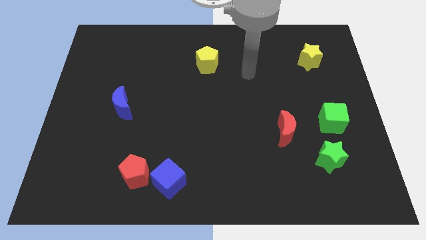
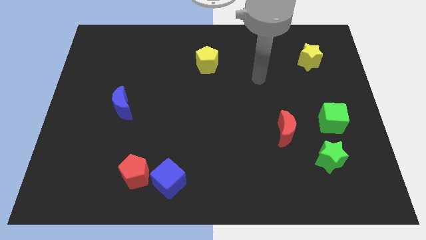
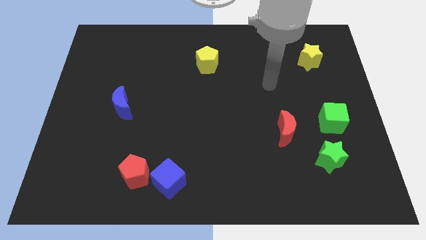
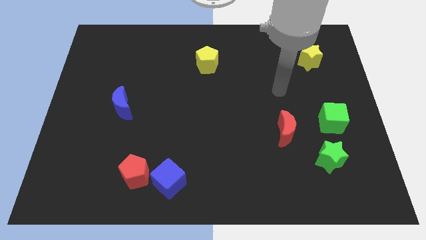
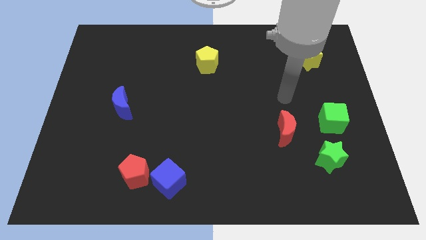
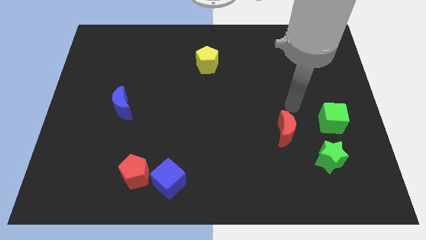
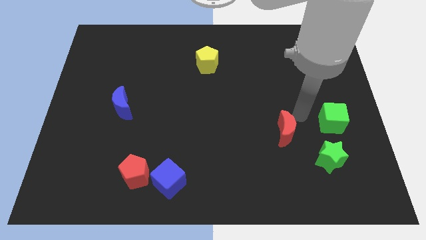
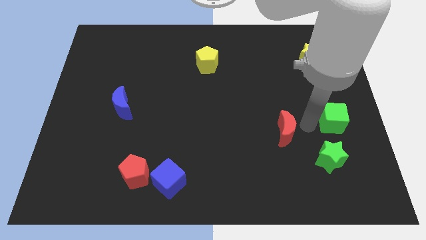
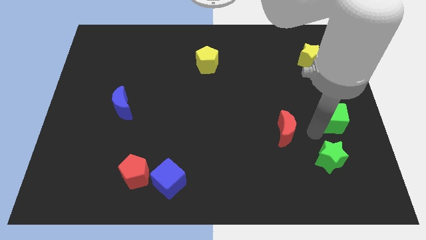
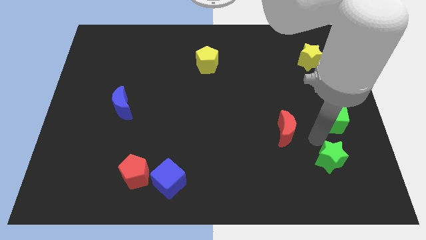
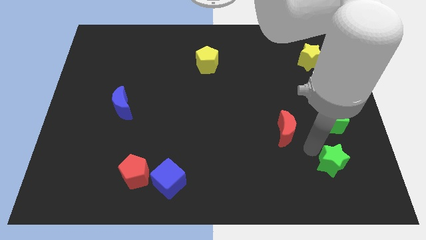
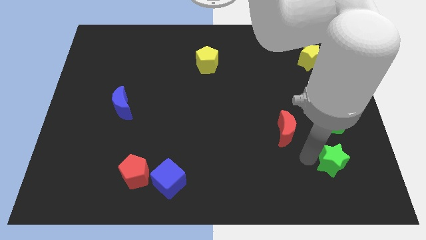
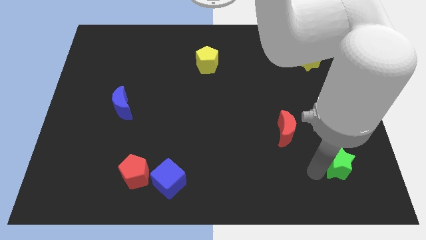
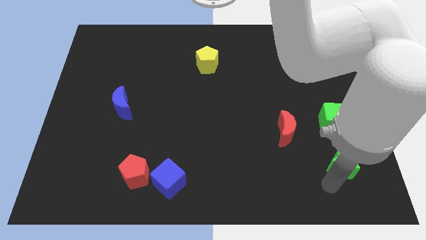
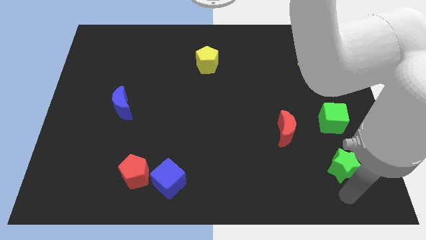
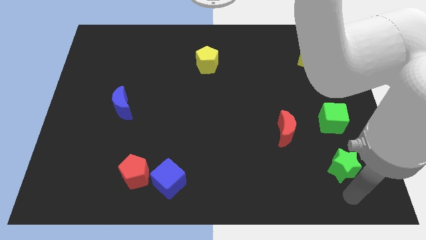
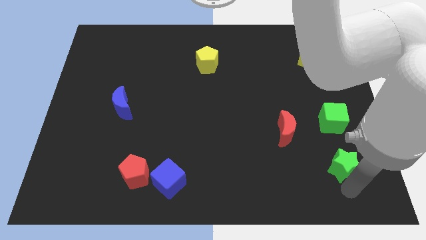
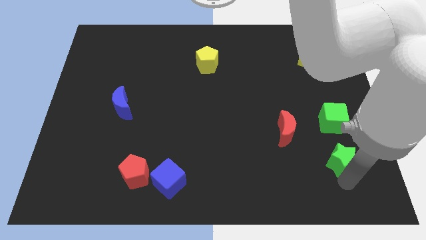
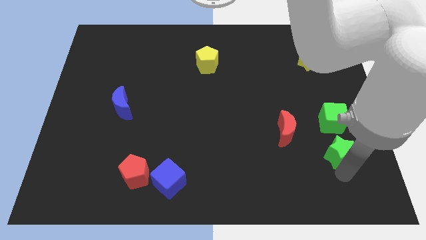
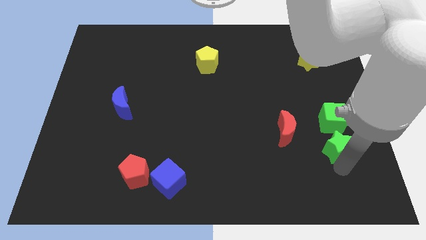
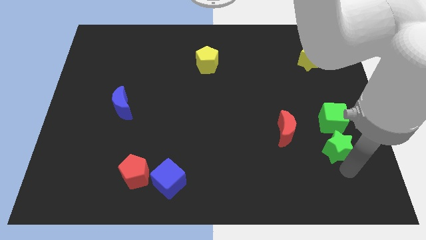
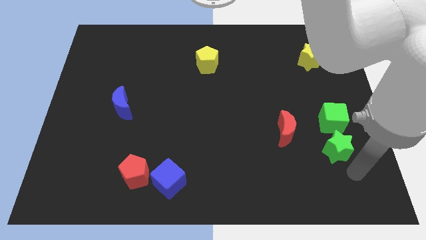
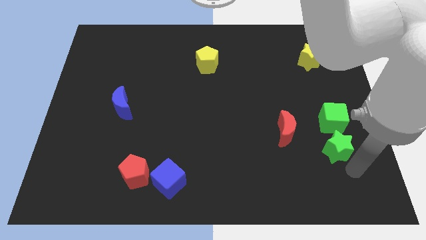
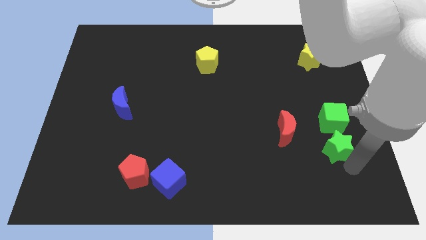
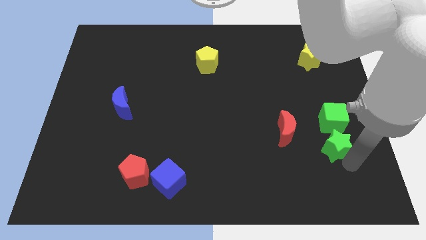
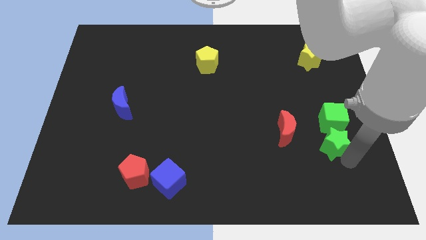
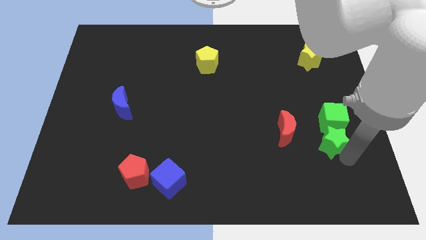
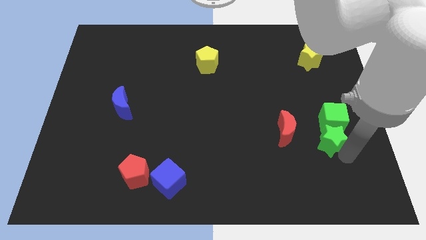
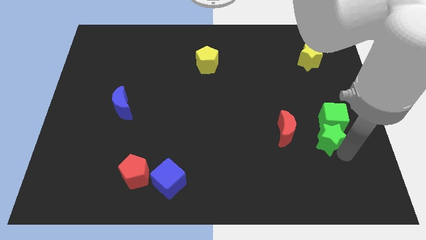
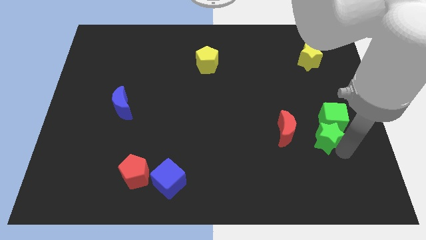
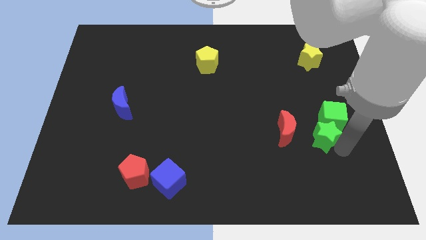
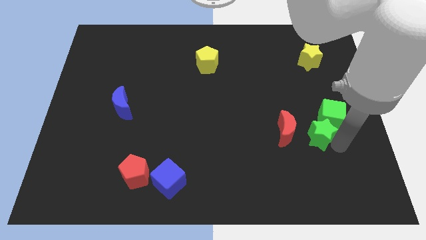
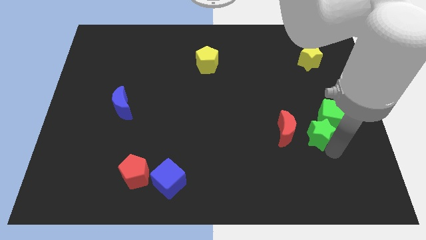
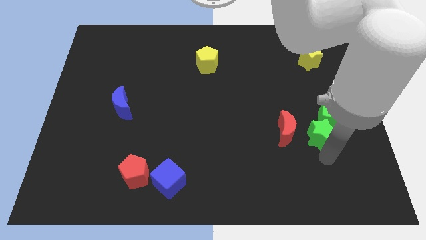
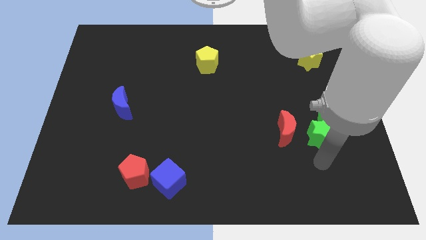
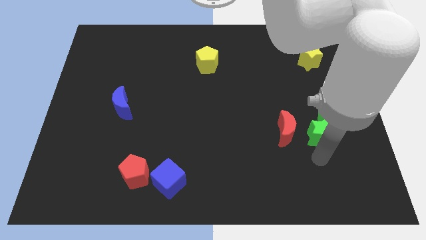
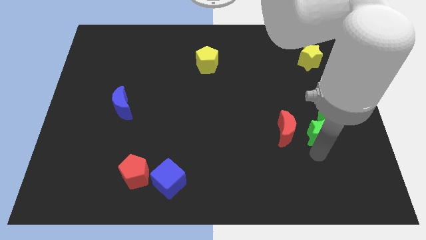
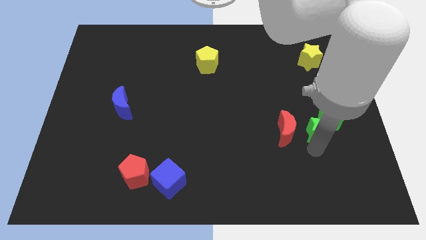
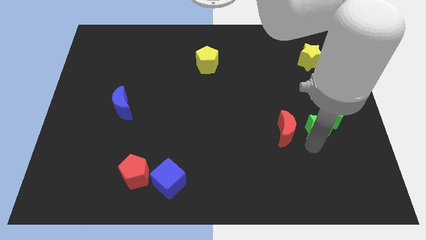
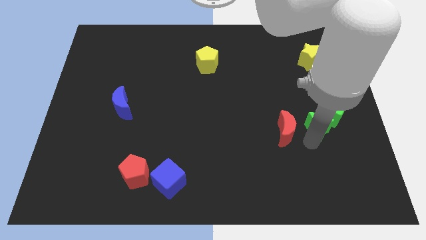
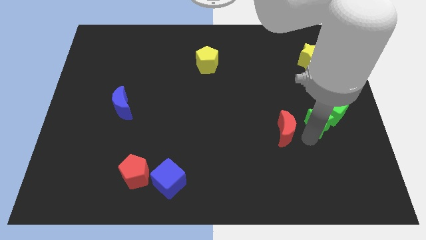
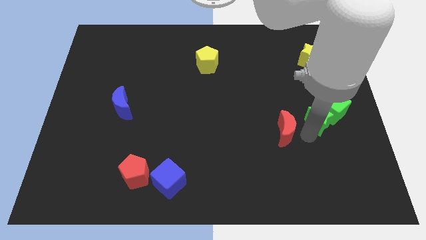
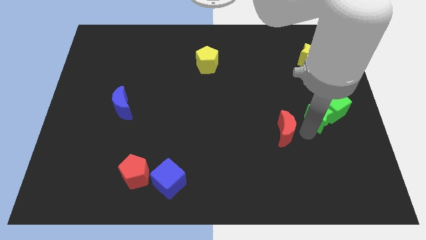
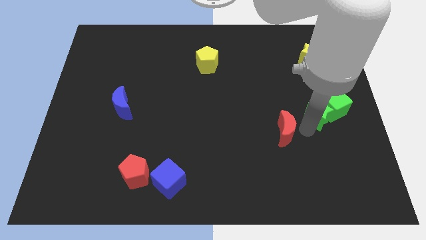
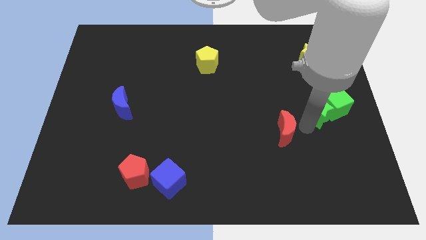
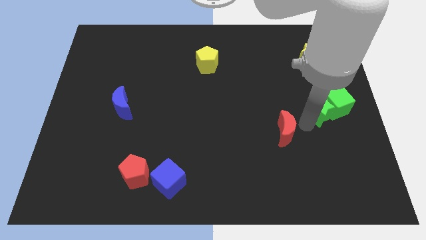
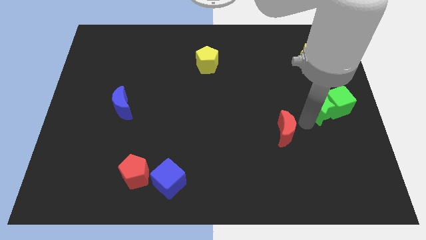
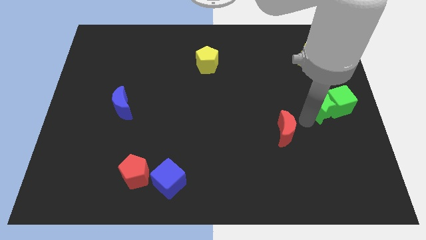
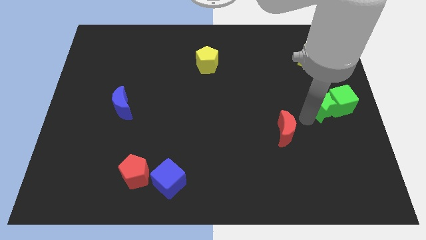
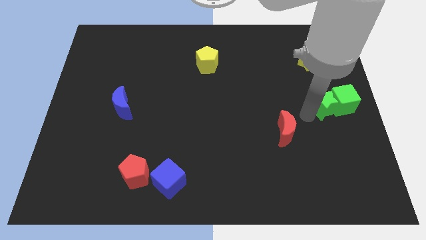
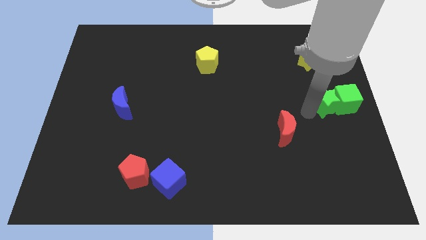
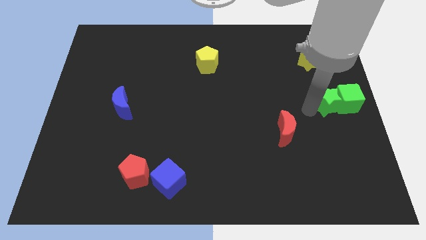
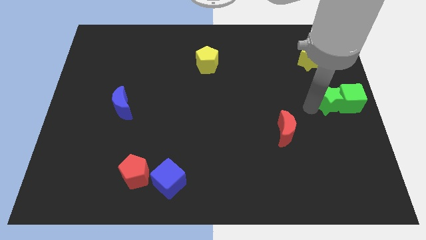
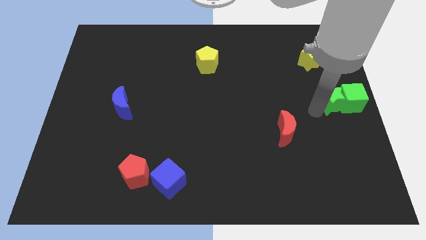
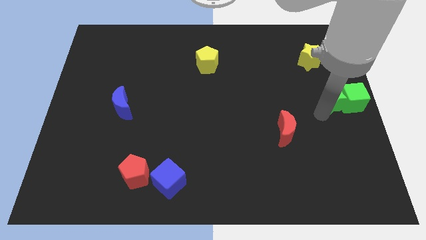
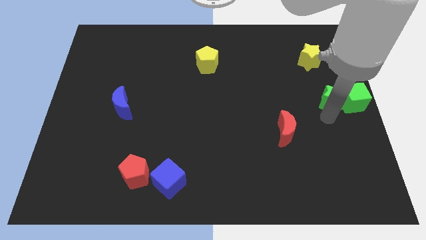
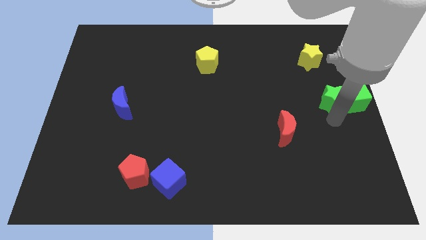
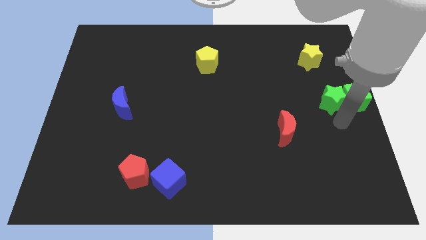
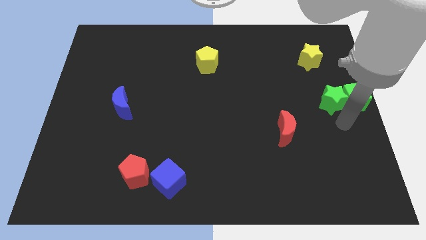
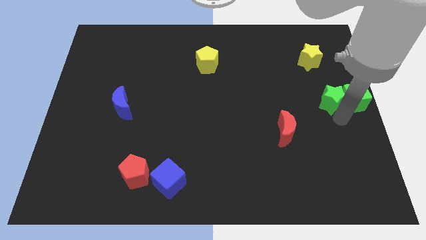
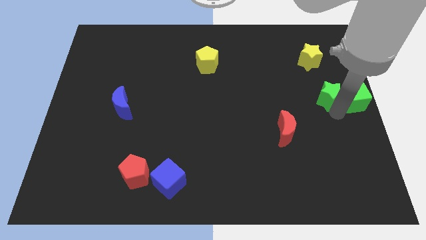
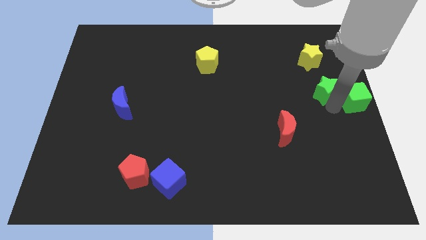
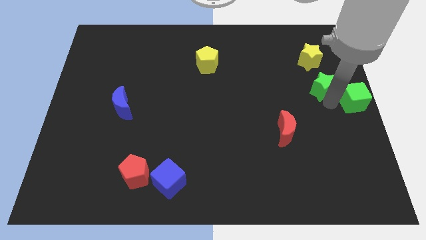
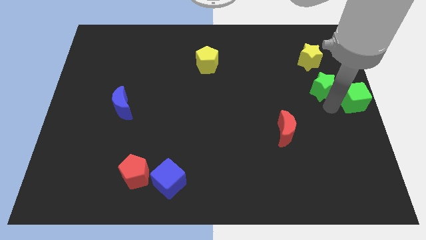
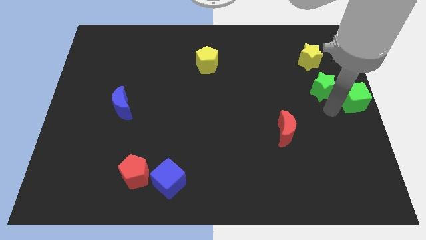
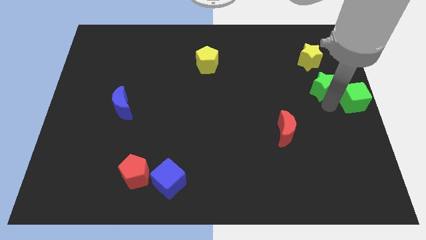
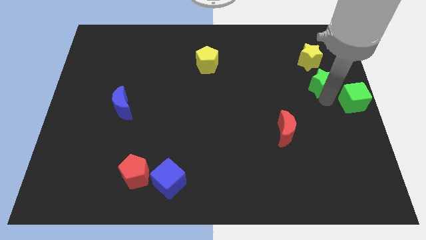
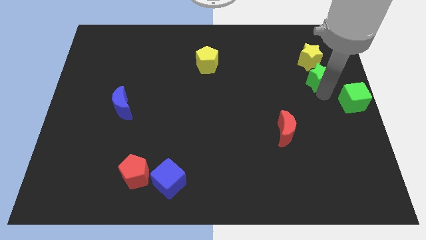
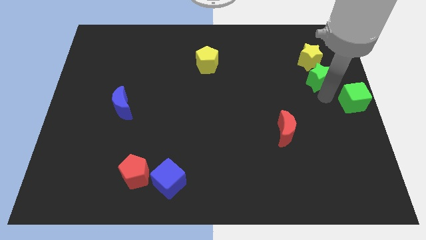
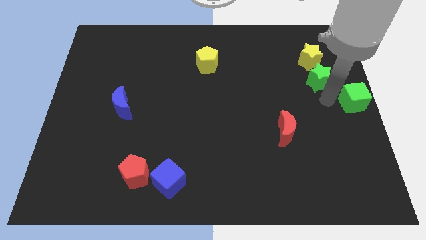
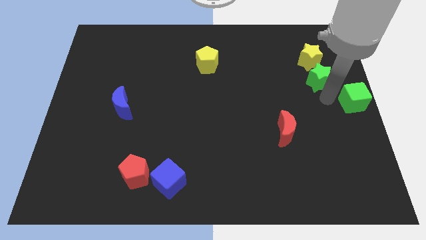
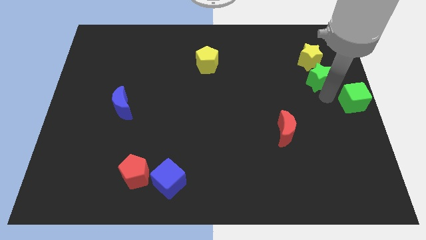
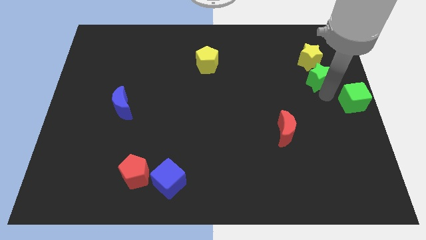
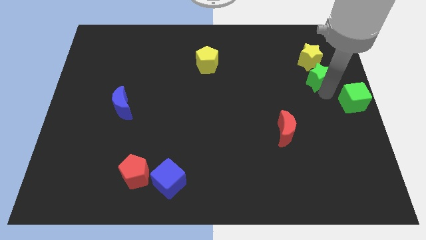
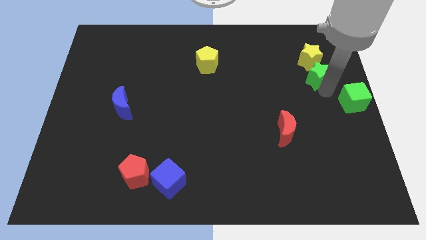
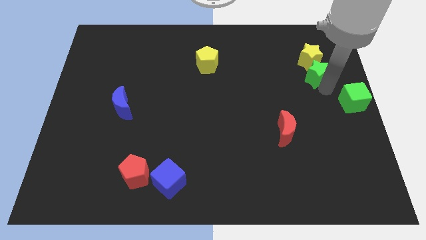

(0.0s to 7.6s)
put the green star to the yellow star
